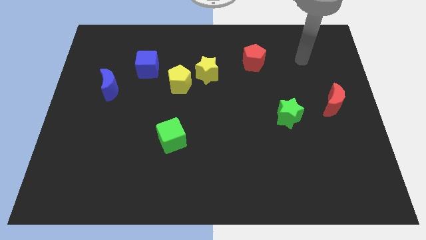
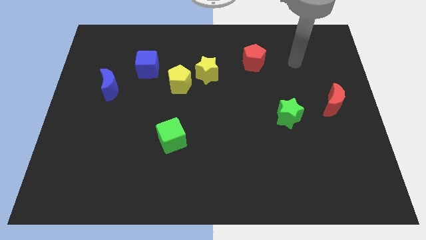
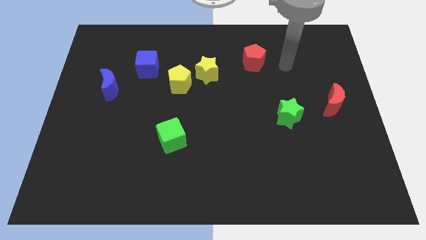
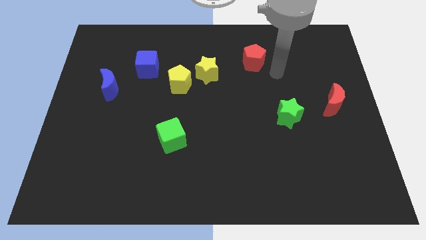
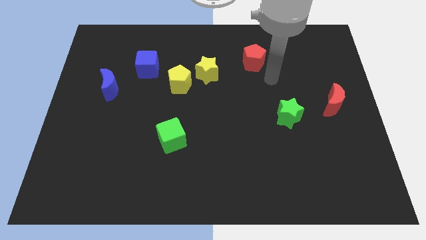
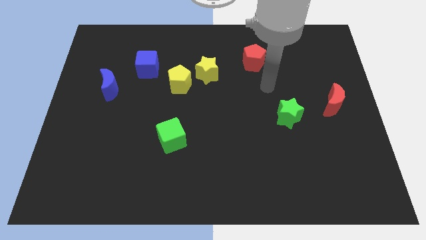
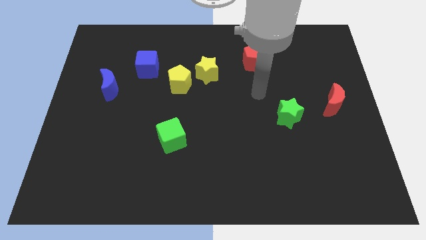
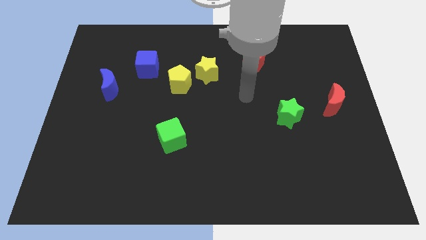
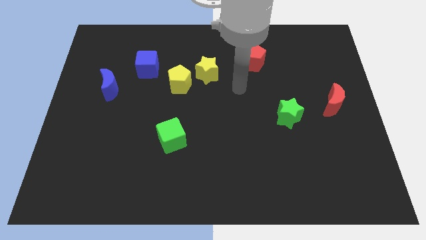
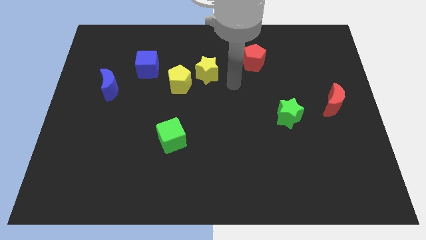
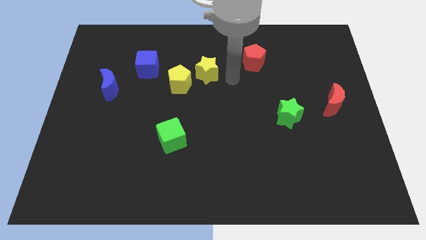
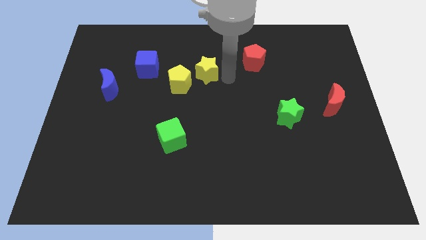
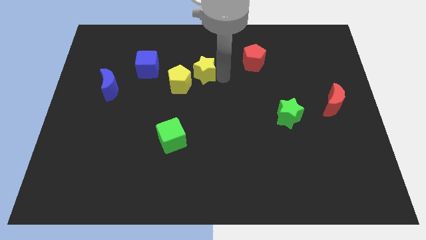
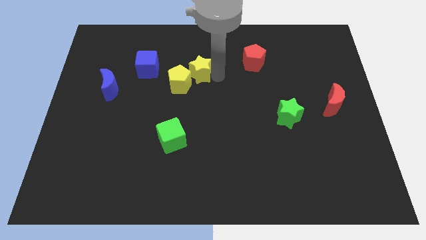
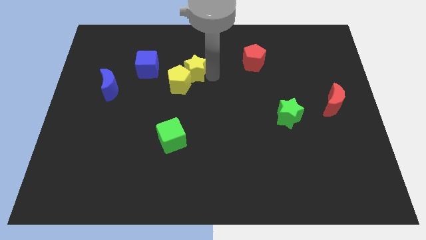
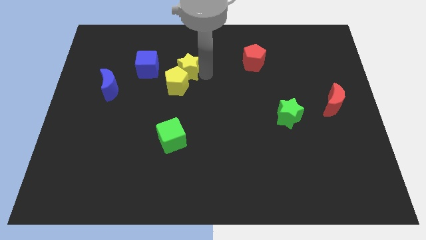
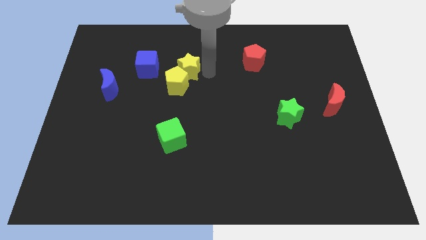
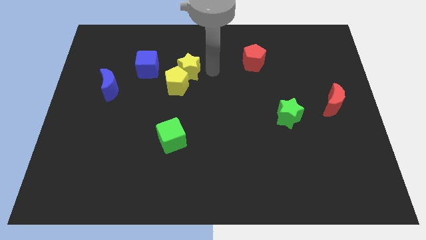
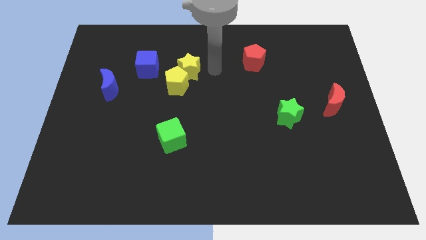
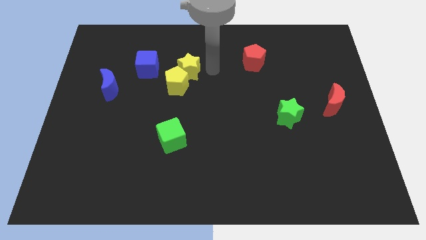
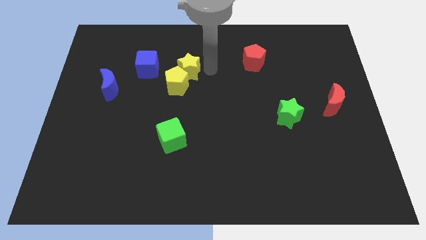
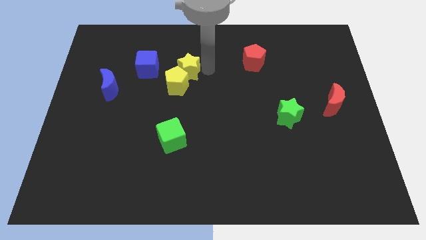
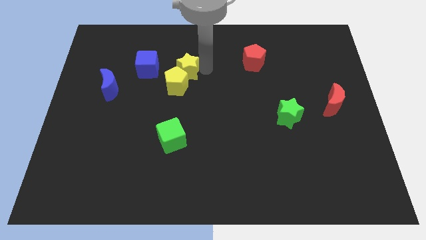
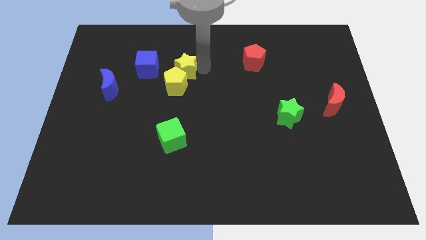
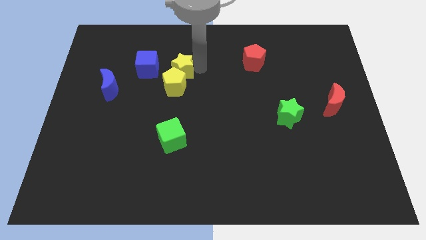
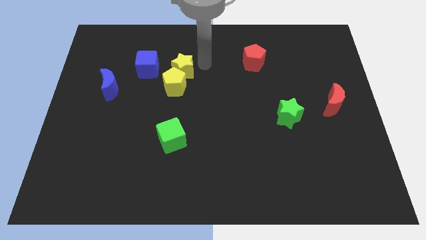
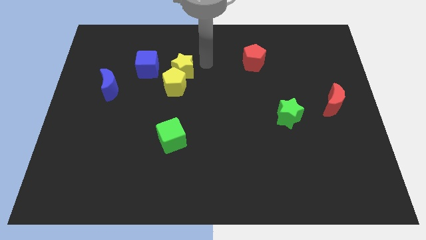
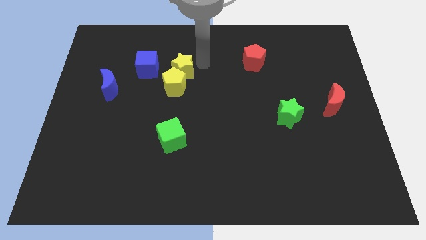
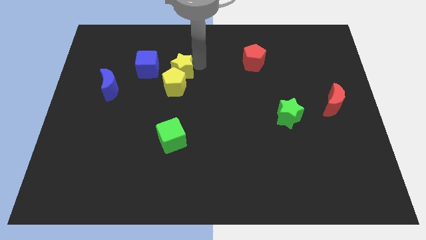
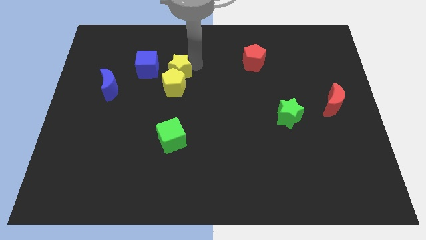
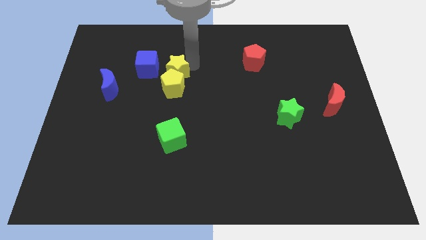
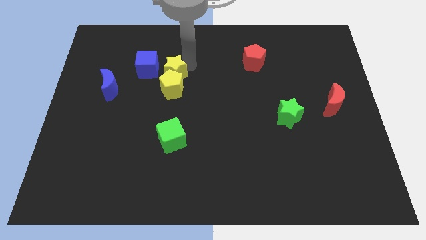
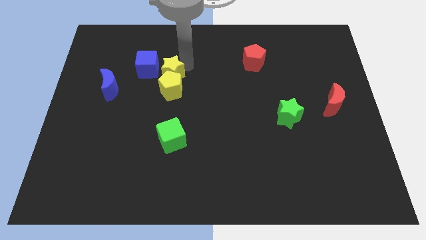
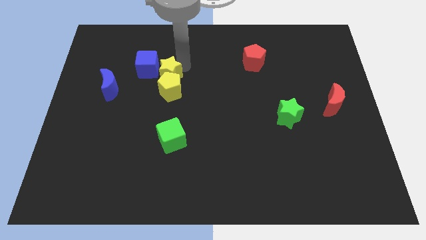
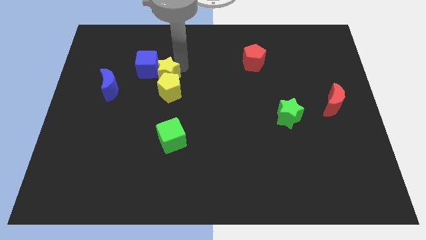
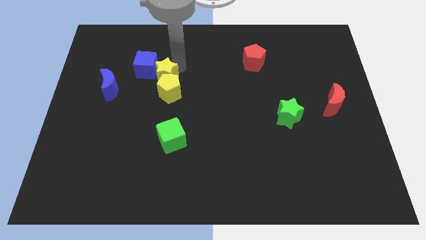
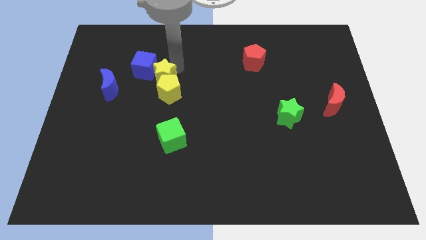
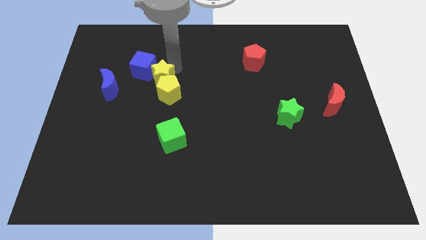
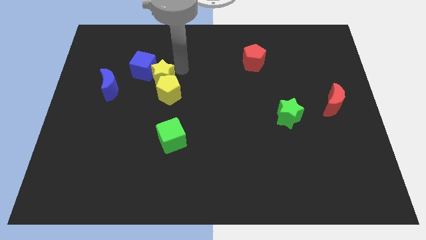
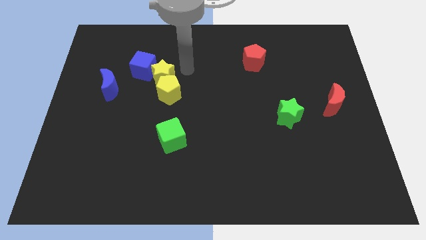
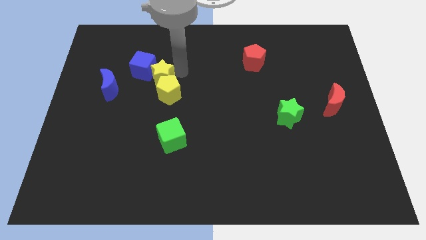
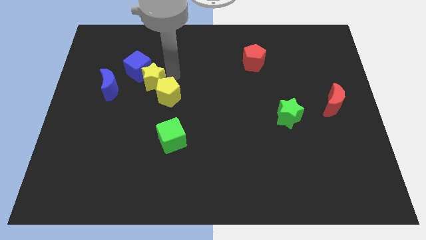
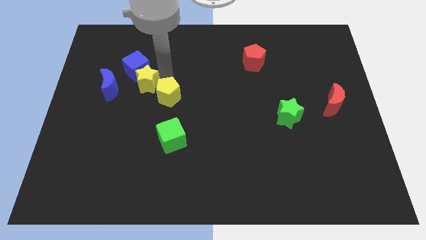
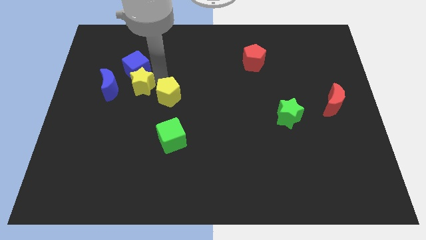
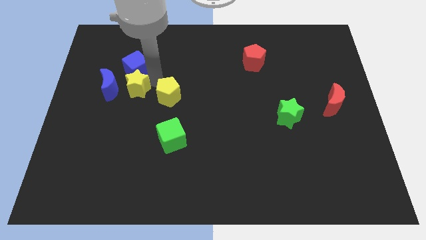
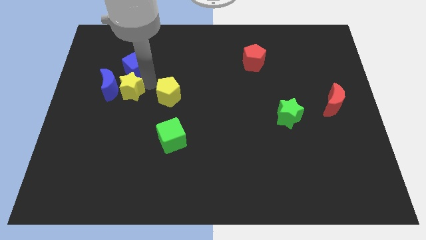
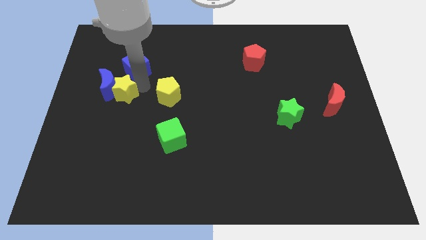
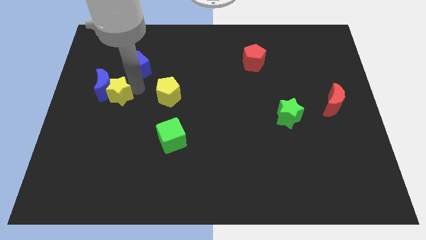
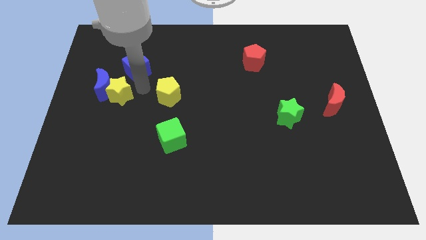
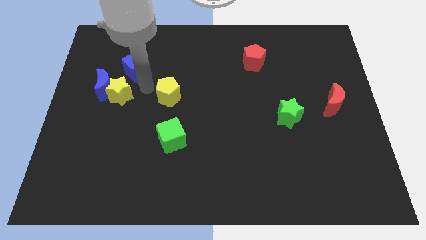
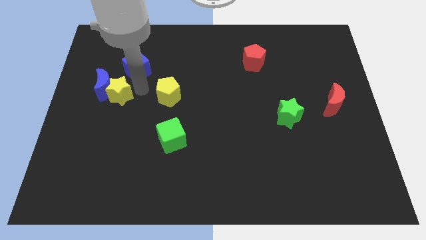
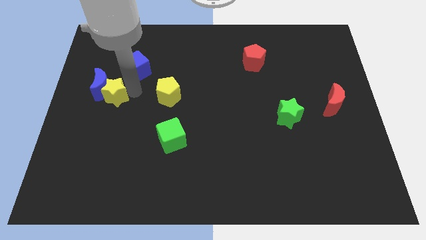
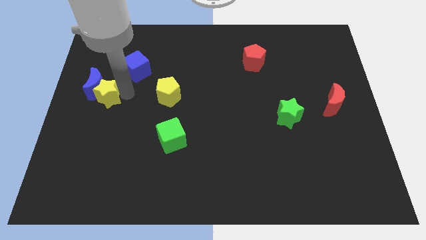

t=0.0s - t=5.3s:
put the yellow star to the left side of the board

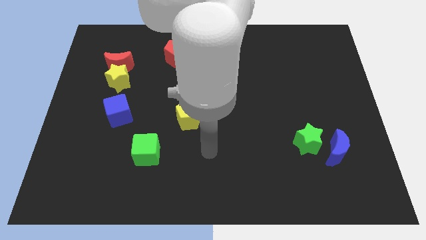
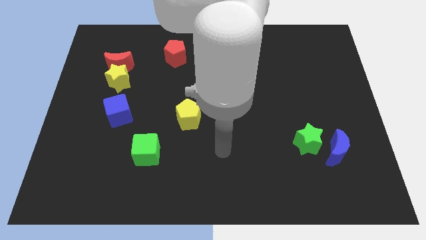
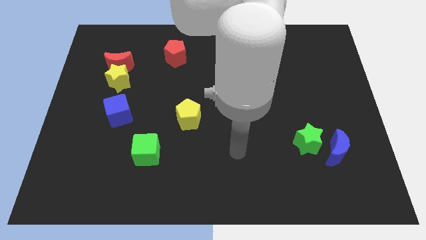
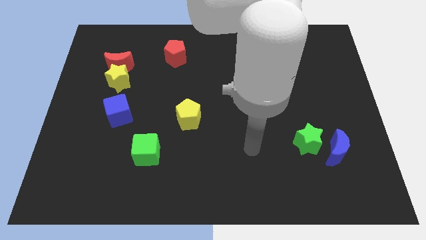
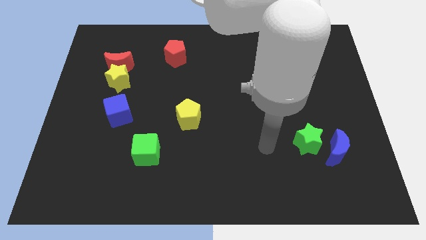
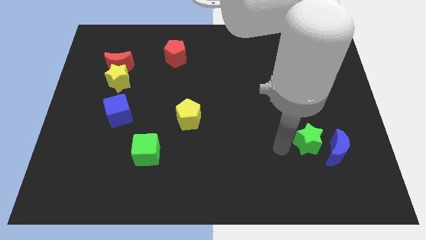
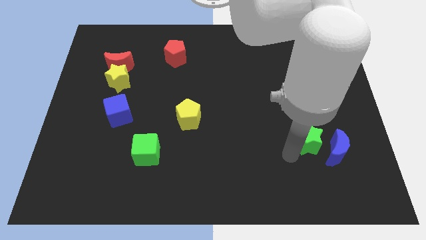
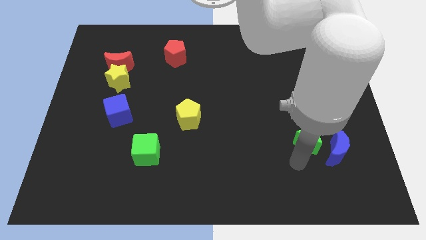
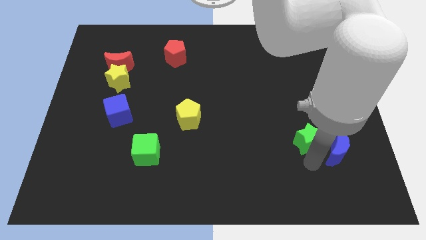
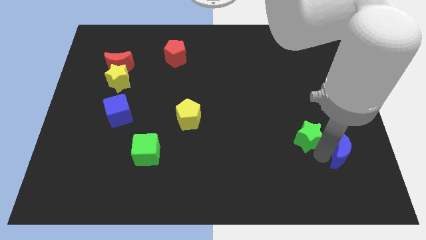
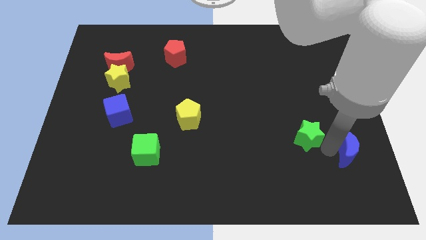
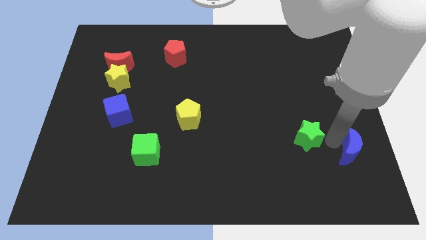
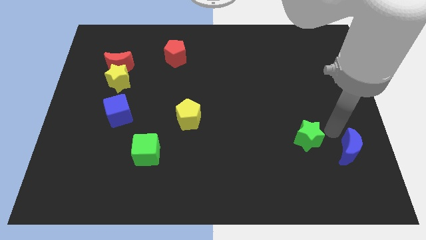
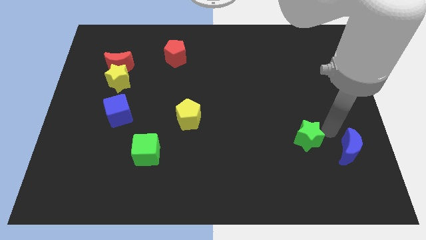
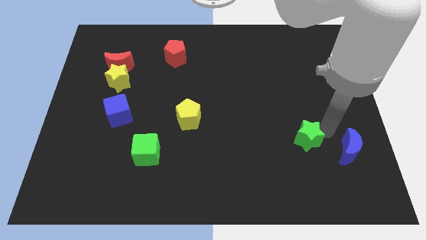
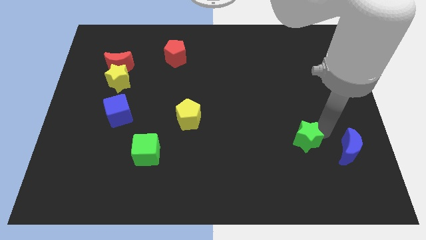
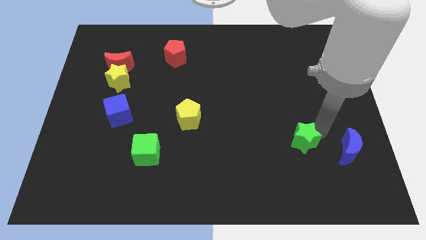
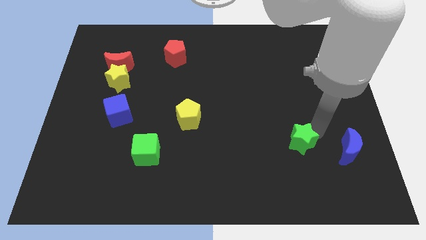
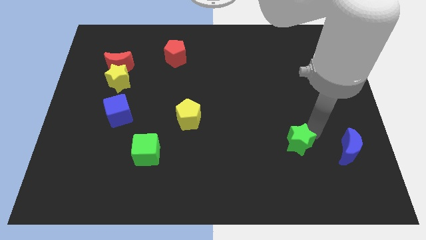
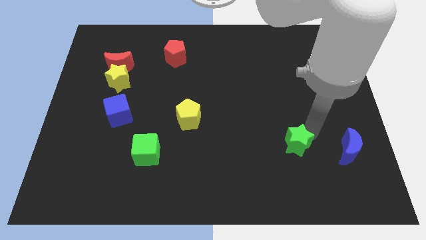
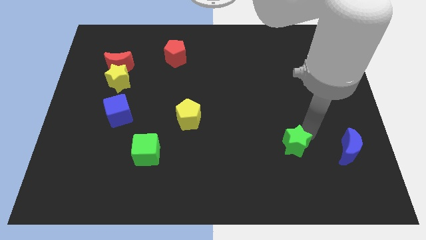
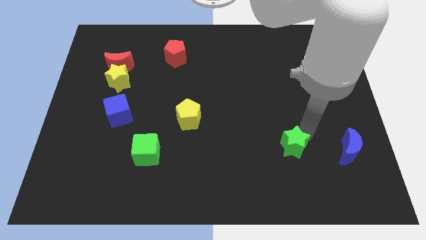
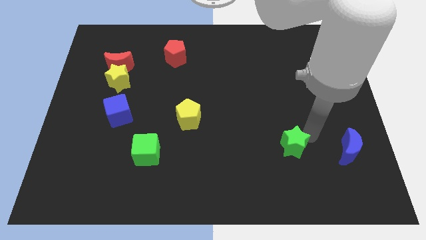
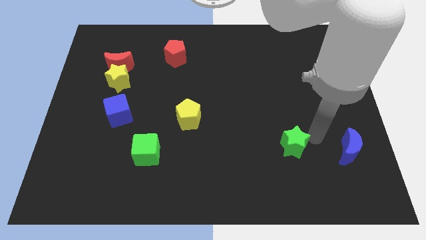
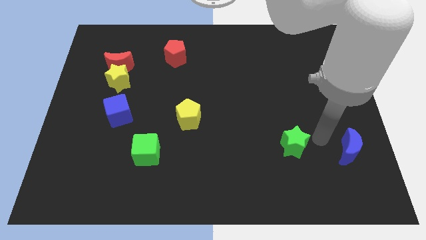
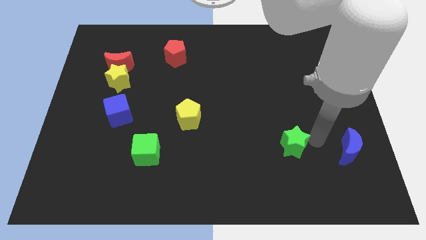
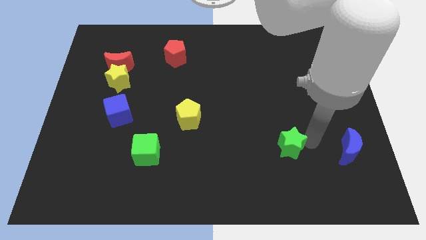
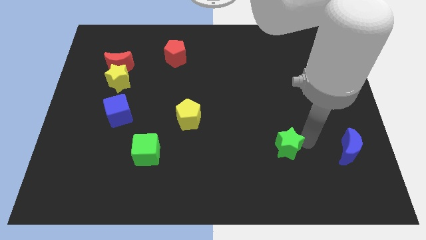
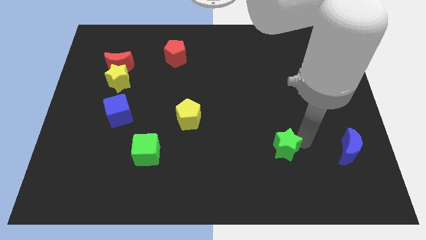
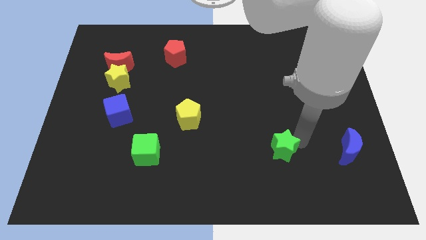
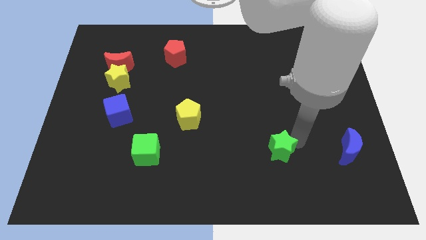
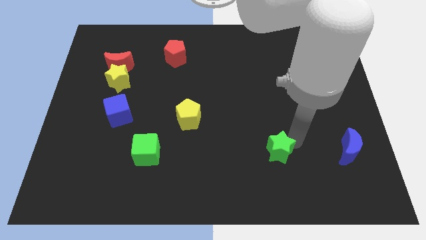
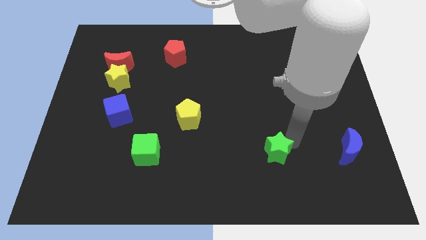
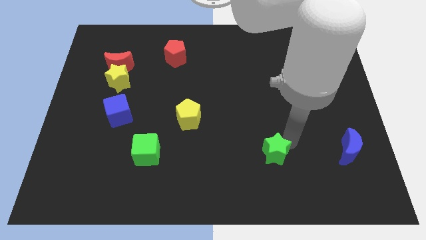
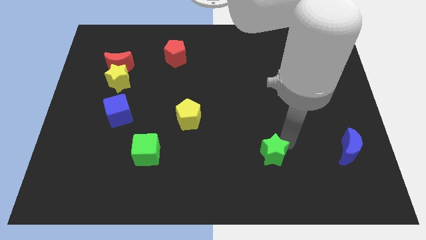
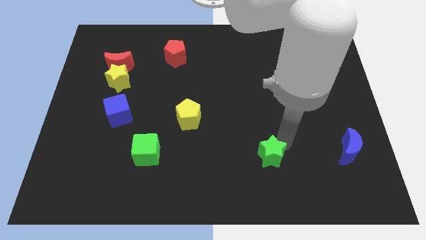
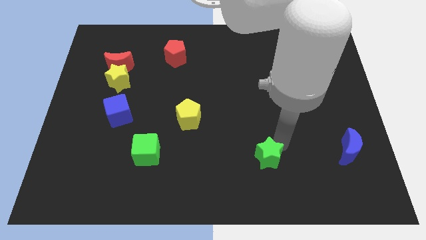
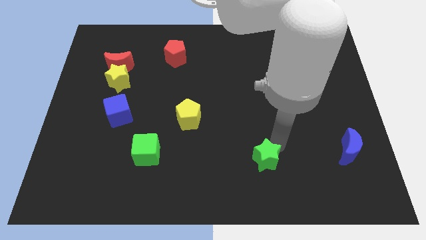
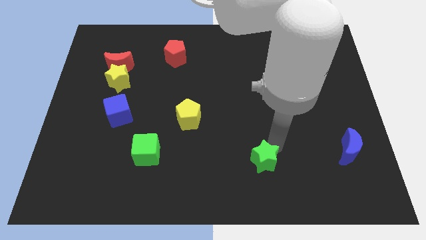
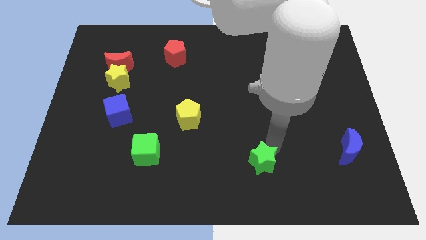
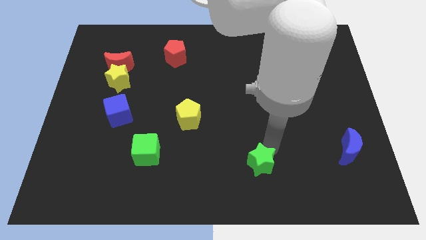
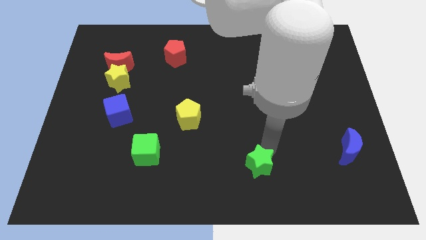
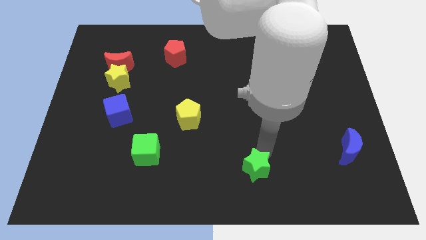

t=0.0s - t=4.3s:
slide the green star to the bottom
